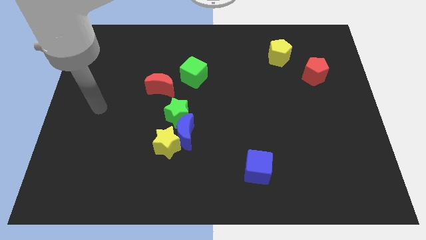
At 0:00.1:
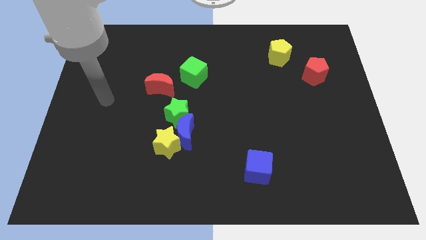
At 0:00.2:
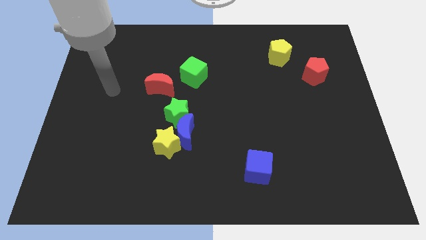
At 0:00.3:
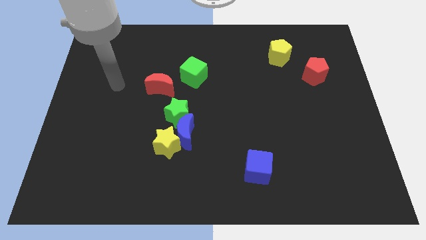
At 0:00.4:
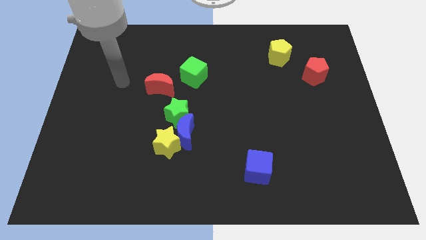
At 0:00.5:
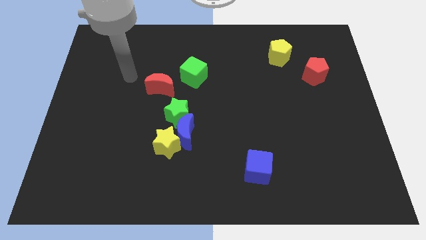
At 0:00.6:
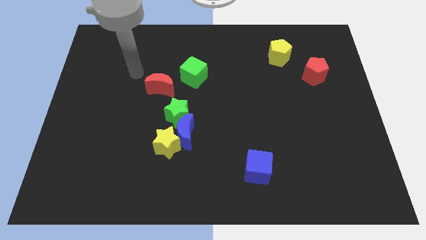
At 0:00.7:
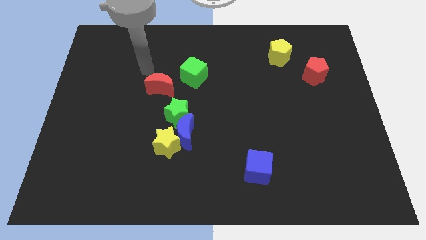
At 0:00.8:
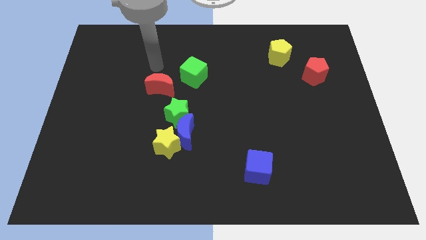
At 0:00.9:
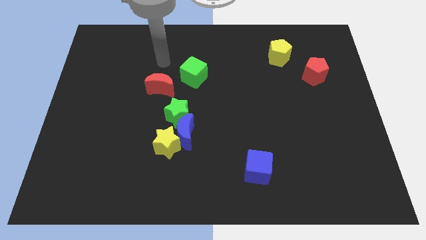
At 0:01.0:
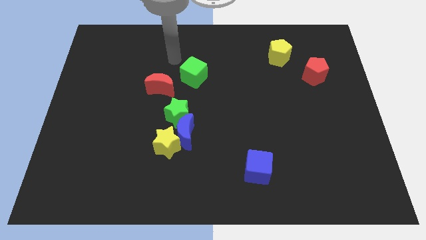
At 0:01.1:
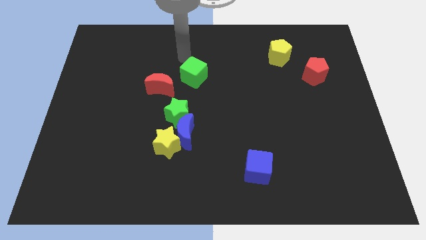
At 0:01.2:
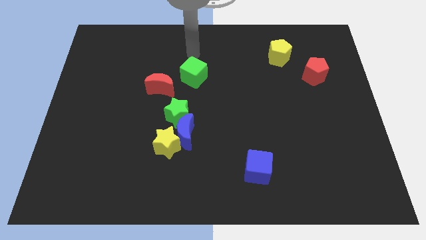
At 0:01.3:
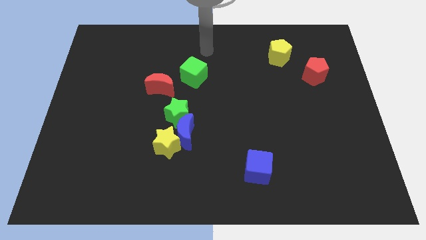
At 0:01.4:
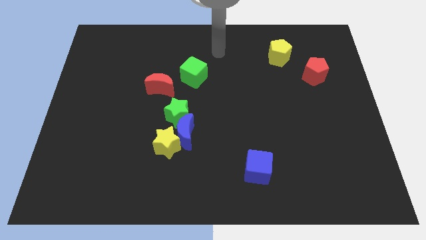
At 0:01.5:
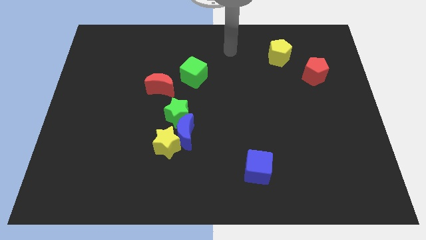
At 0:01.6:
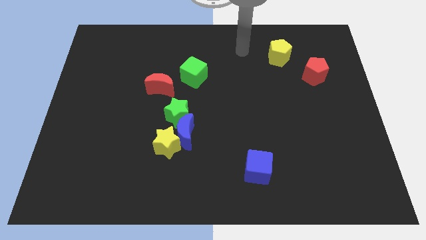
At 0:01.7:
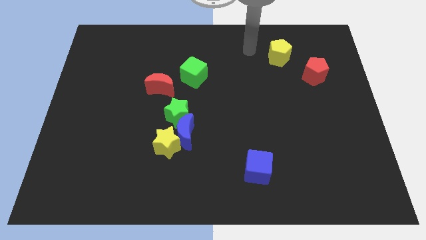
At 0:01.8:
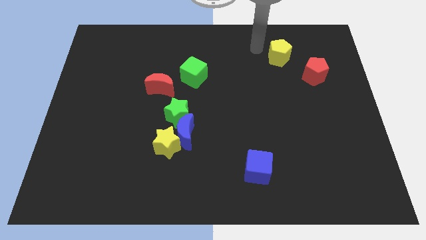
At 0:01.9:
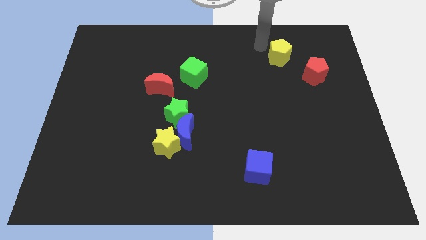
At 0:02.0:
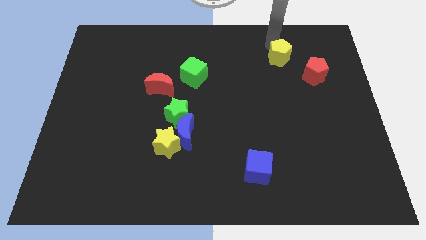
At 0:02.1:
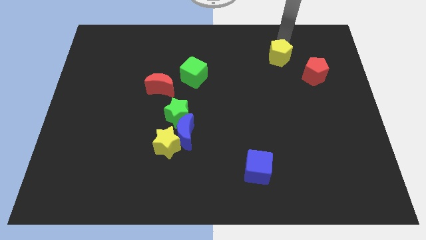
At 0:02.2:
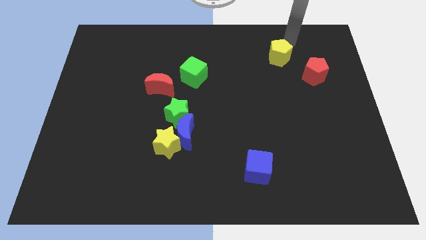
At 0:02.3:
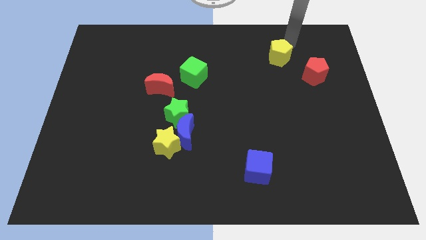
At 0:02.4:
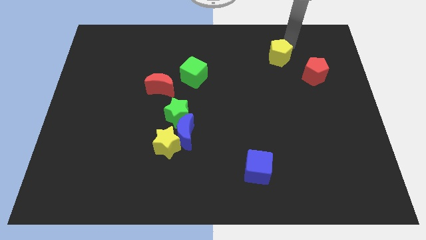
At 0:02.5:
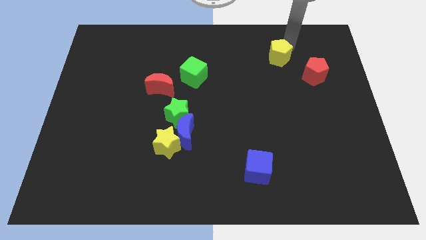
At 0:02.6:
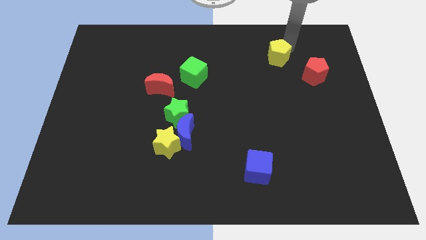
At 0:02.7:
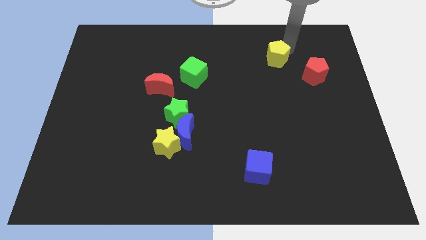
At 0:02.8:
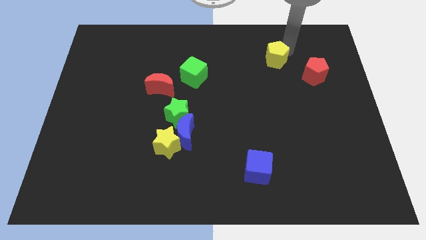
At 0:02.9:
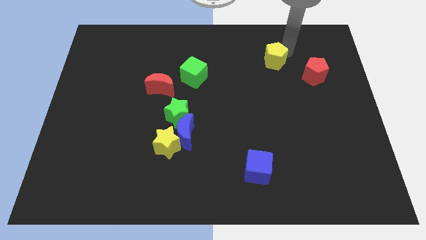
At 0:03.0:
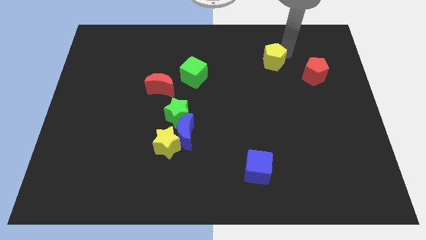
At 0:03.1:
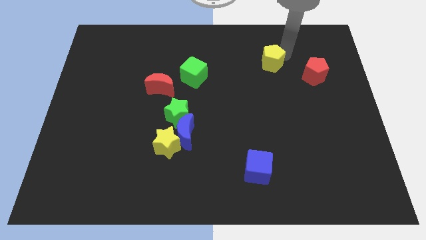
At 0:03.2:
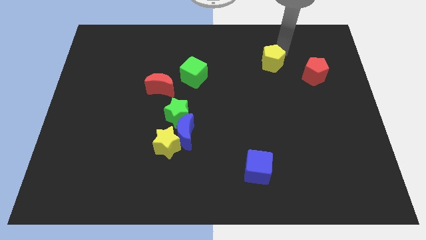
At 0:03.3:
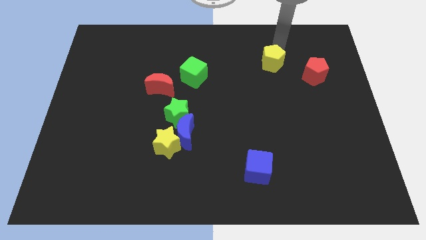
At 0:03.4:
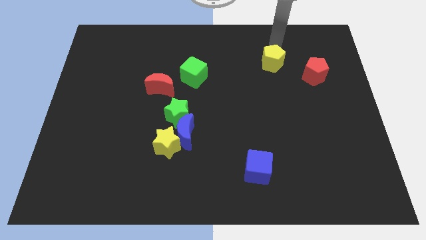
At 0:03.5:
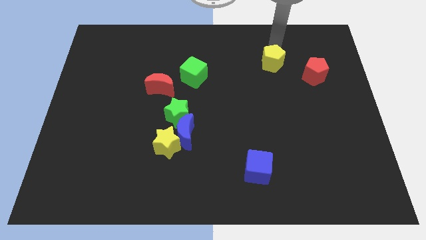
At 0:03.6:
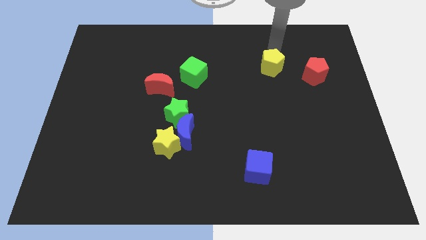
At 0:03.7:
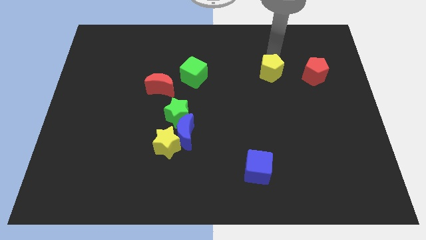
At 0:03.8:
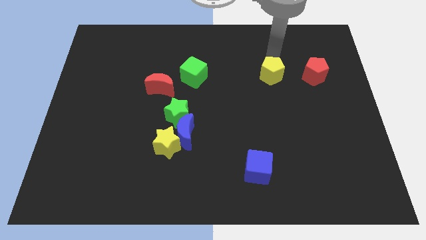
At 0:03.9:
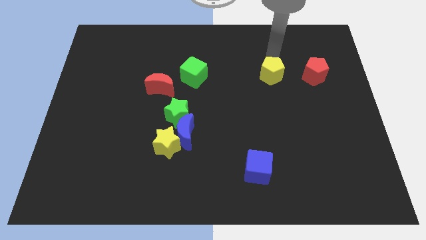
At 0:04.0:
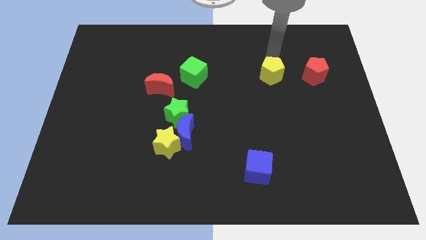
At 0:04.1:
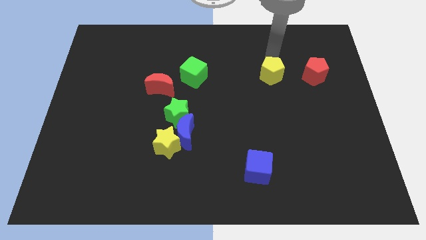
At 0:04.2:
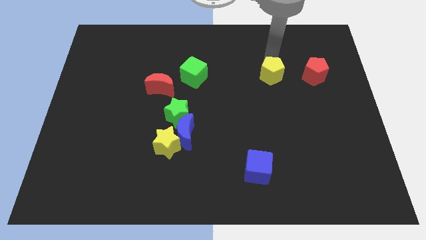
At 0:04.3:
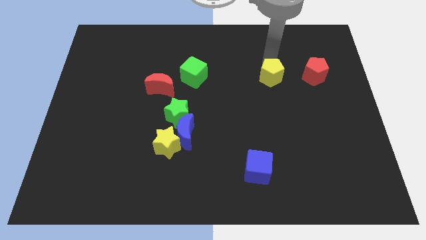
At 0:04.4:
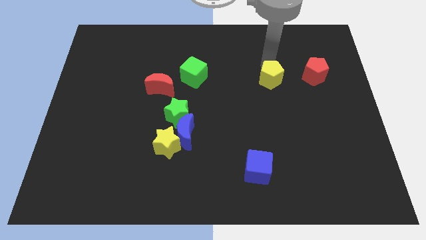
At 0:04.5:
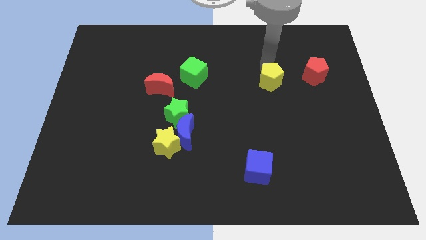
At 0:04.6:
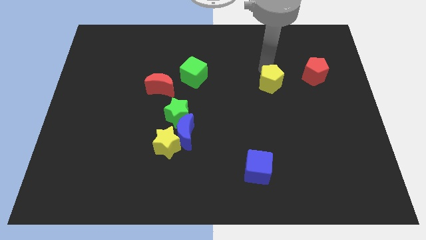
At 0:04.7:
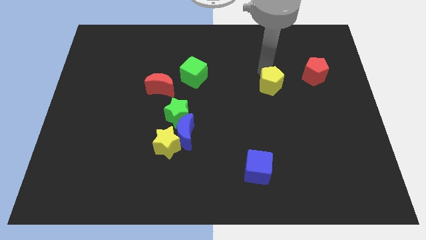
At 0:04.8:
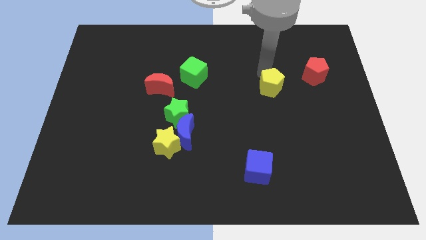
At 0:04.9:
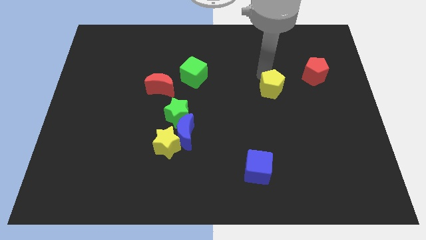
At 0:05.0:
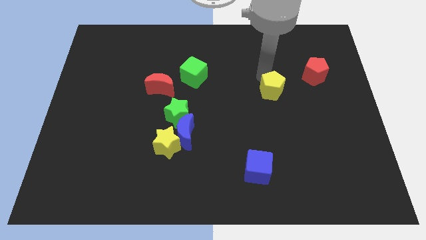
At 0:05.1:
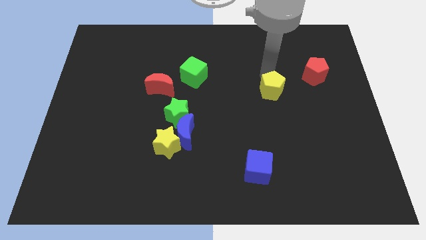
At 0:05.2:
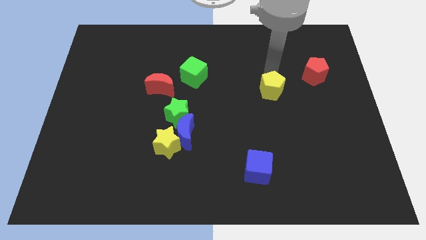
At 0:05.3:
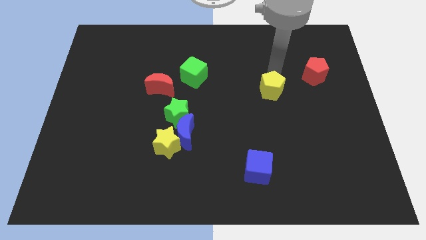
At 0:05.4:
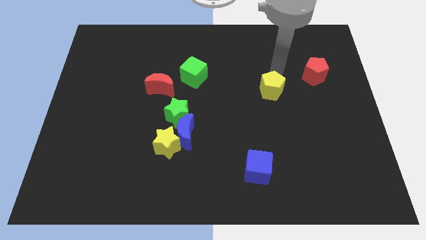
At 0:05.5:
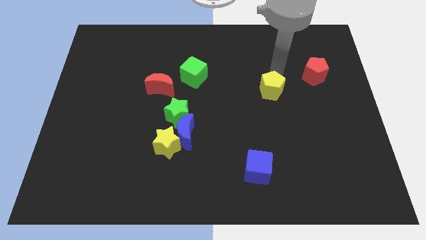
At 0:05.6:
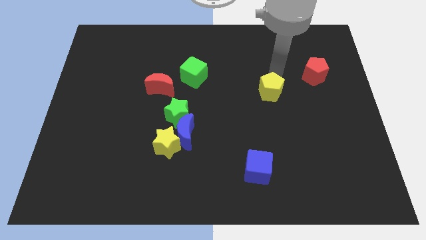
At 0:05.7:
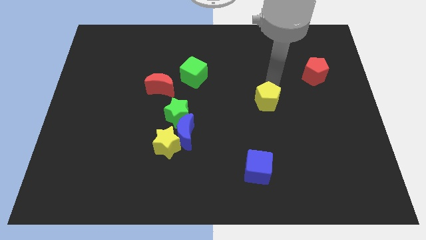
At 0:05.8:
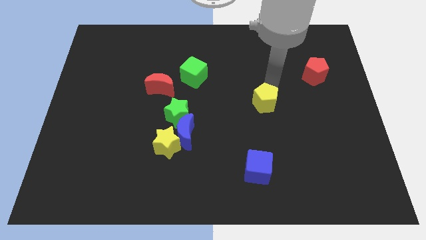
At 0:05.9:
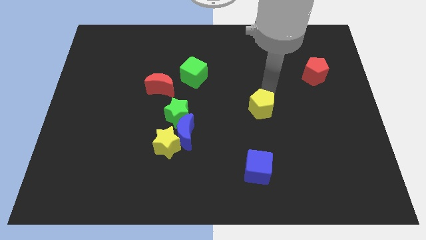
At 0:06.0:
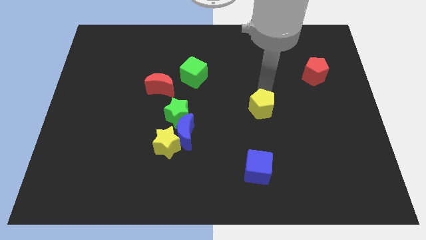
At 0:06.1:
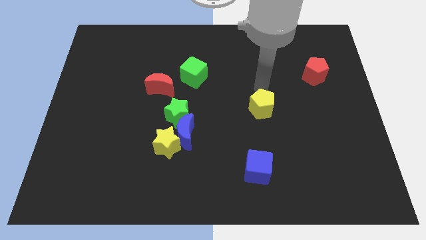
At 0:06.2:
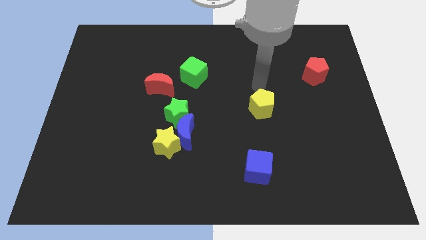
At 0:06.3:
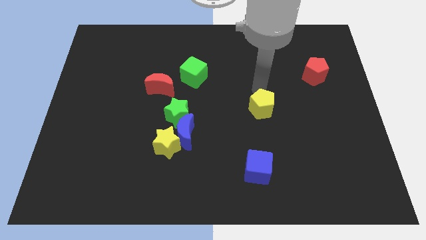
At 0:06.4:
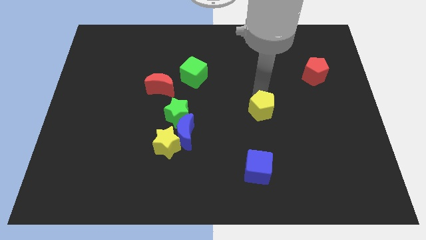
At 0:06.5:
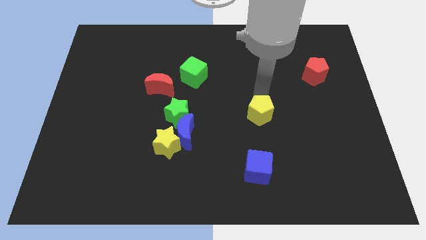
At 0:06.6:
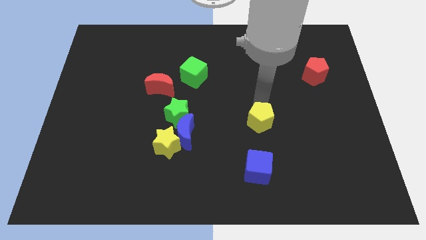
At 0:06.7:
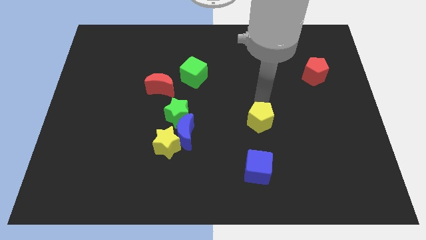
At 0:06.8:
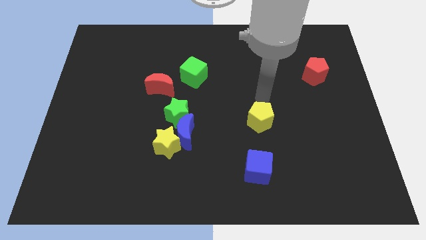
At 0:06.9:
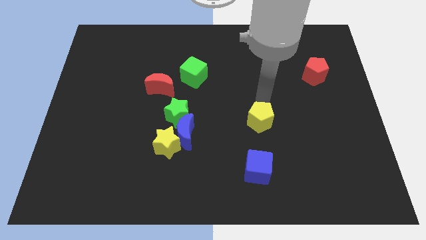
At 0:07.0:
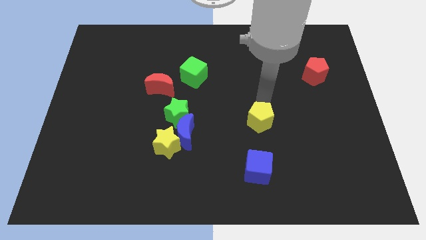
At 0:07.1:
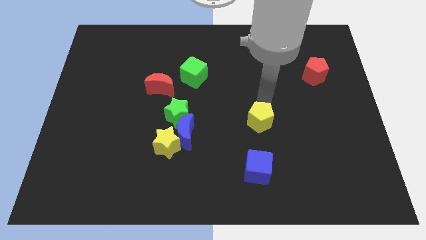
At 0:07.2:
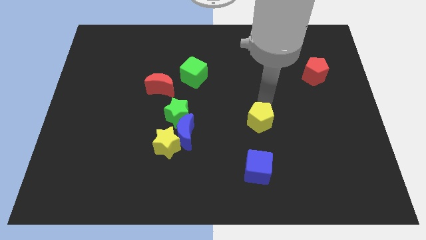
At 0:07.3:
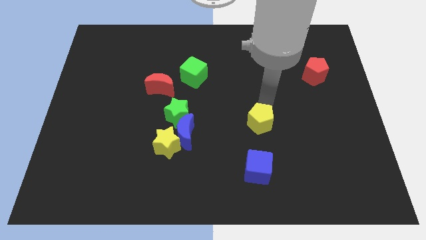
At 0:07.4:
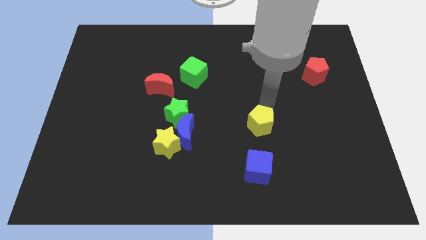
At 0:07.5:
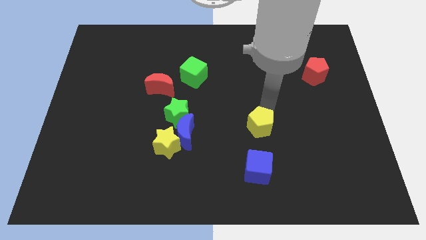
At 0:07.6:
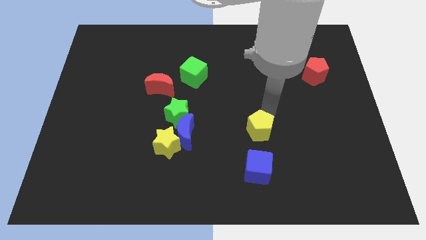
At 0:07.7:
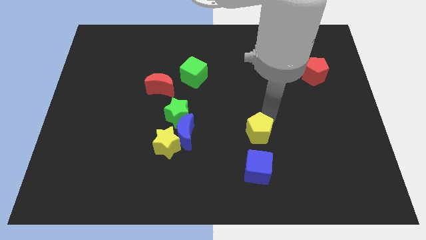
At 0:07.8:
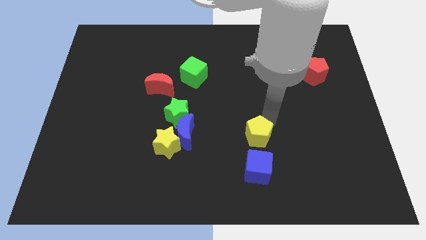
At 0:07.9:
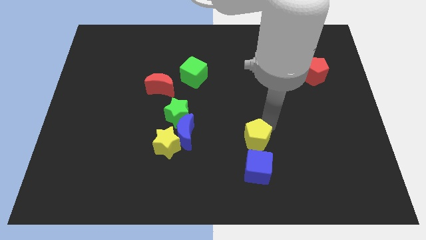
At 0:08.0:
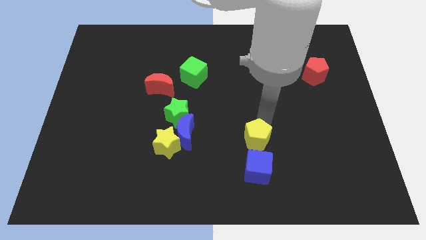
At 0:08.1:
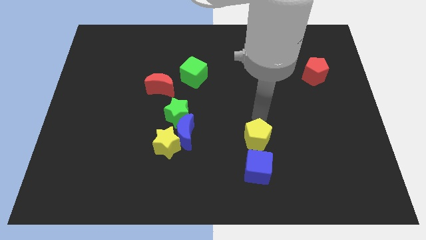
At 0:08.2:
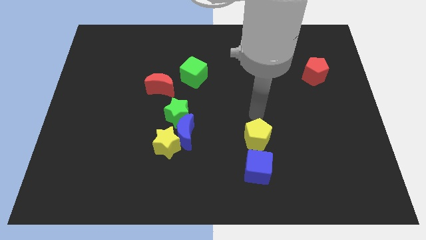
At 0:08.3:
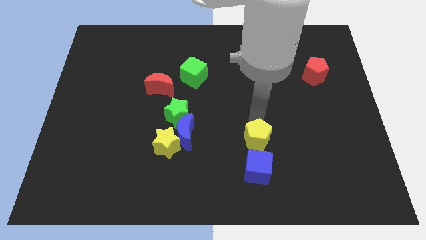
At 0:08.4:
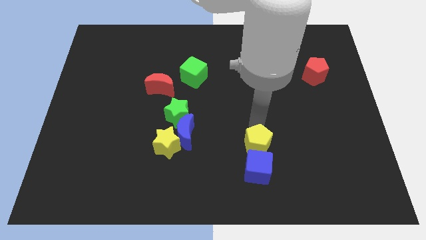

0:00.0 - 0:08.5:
push the yellow pentagon to the blue cube
